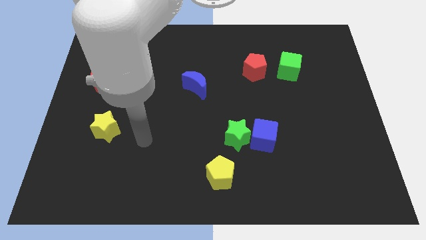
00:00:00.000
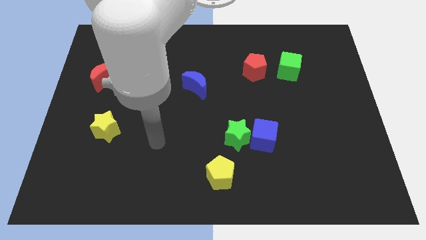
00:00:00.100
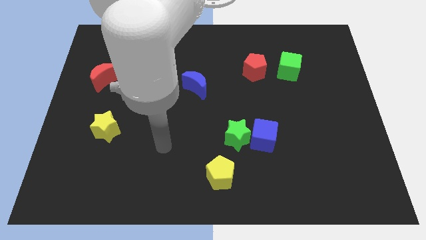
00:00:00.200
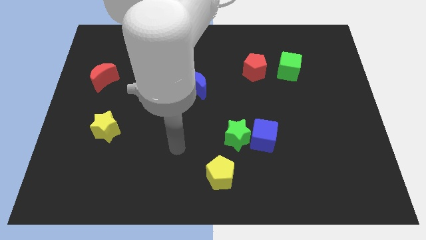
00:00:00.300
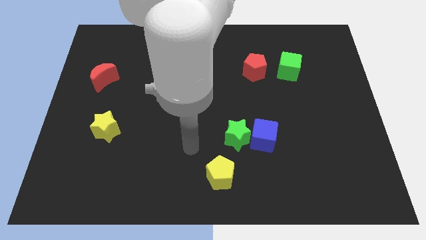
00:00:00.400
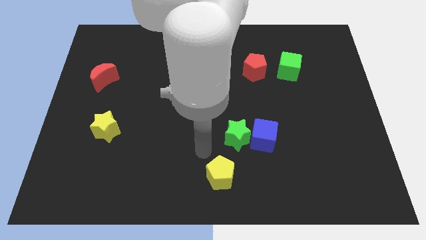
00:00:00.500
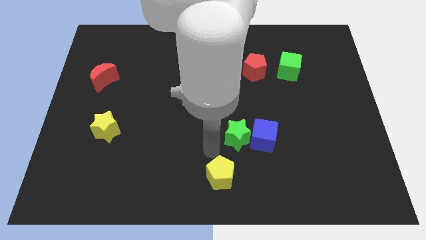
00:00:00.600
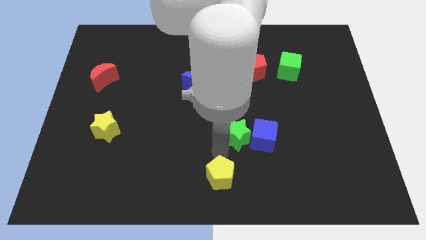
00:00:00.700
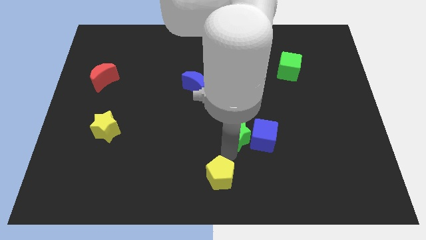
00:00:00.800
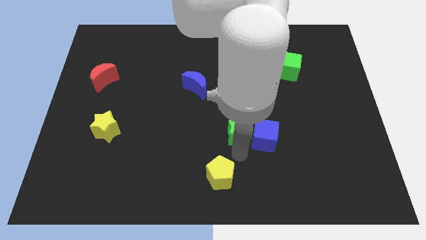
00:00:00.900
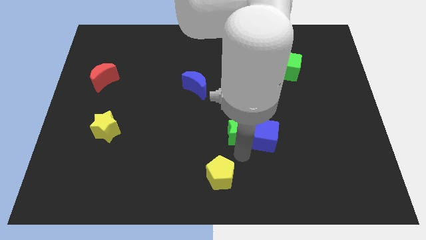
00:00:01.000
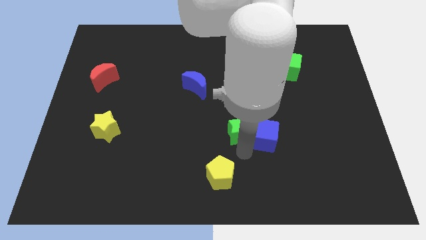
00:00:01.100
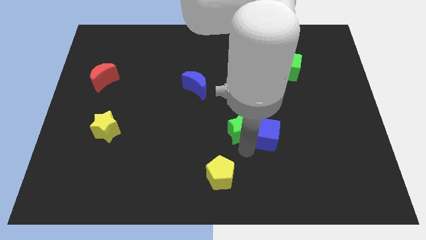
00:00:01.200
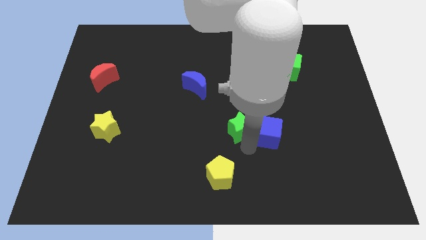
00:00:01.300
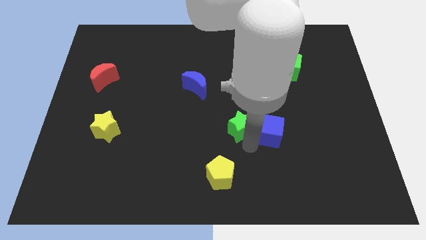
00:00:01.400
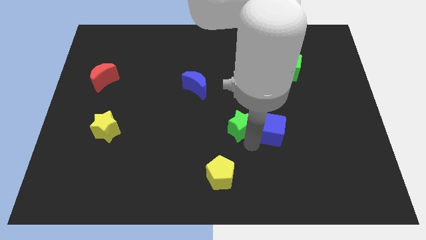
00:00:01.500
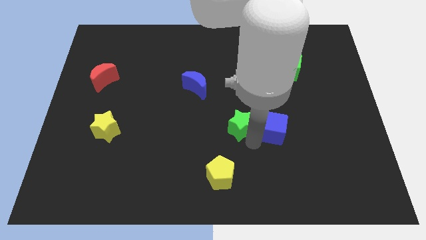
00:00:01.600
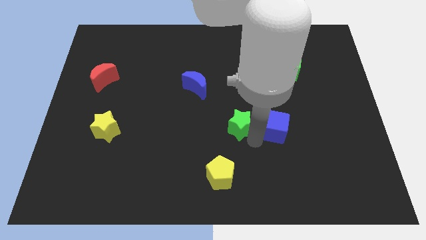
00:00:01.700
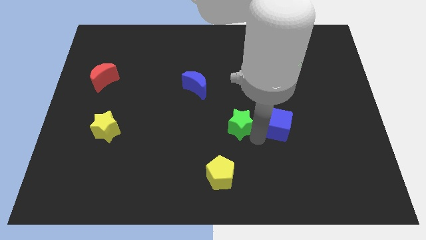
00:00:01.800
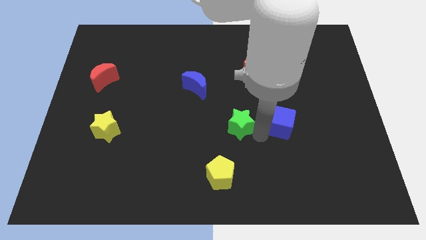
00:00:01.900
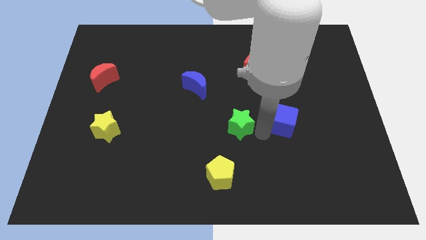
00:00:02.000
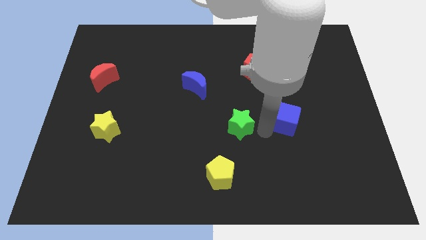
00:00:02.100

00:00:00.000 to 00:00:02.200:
slightly move the blue cube upwards and right diagonally

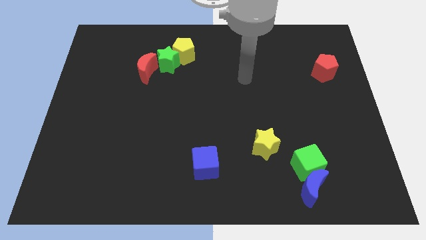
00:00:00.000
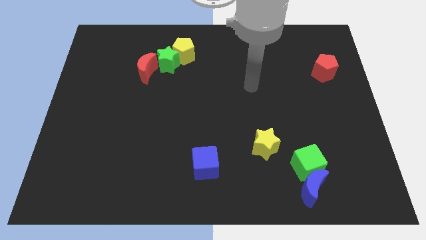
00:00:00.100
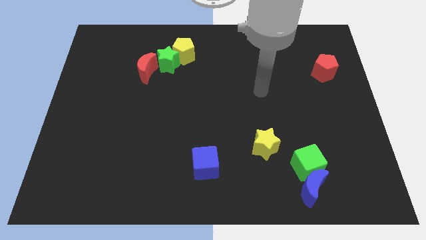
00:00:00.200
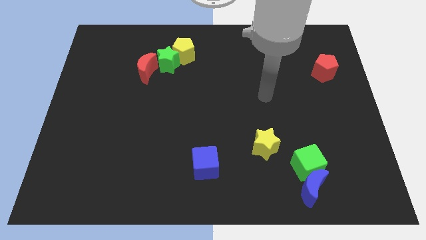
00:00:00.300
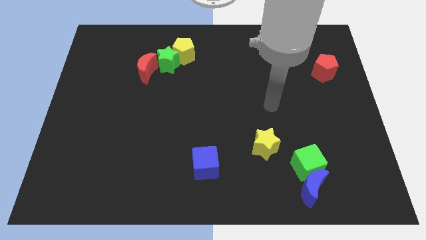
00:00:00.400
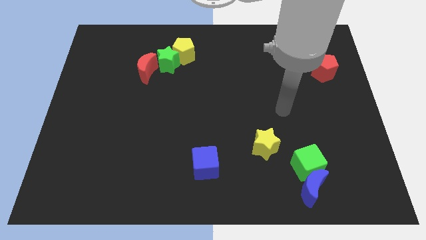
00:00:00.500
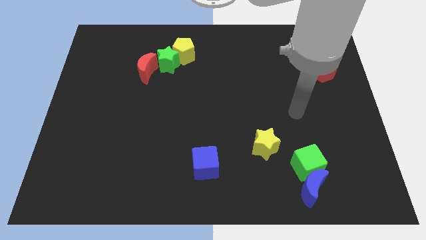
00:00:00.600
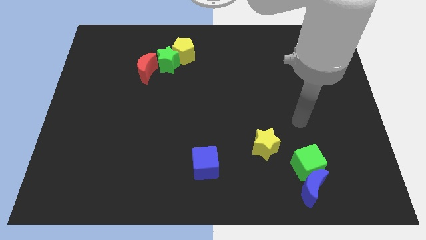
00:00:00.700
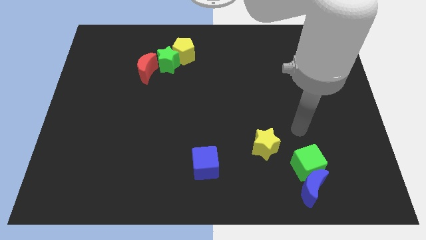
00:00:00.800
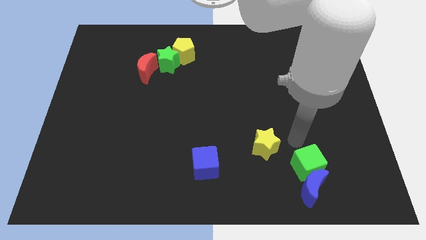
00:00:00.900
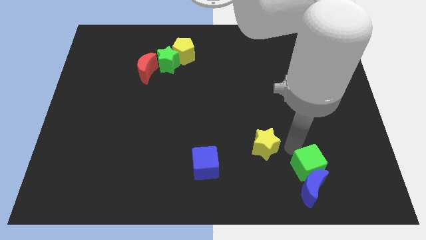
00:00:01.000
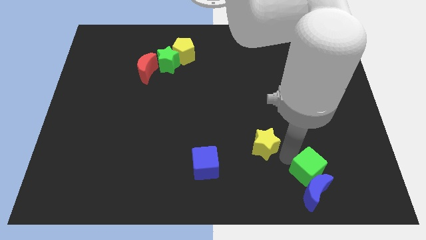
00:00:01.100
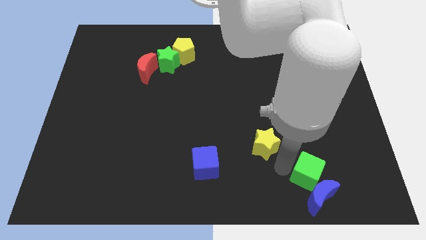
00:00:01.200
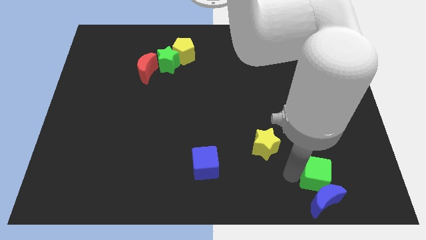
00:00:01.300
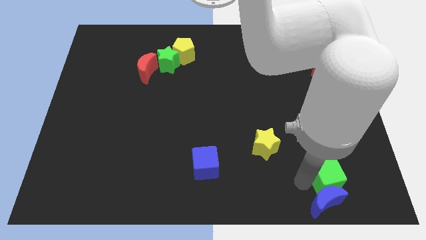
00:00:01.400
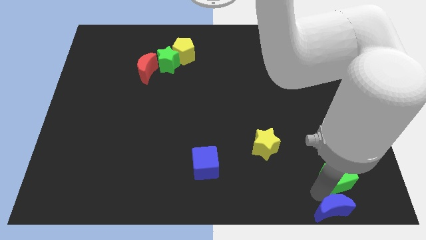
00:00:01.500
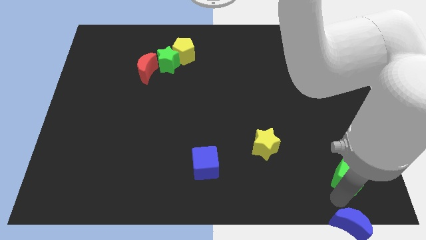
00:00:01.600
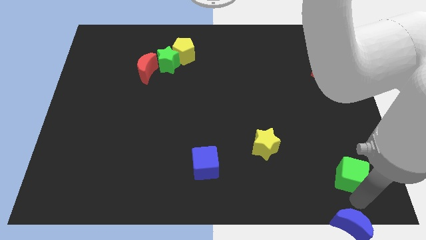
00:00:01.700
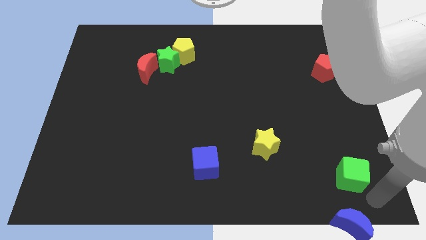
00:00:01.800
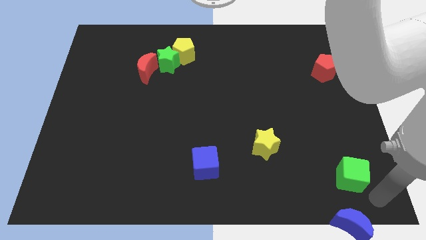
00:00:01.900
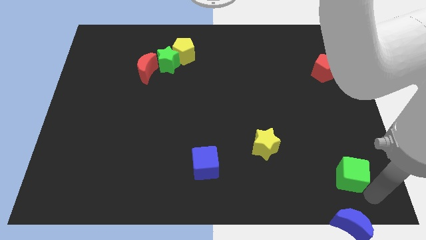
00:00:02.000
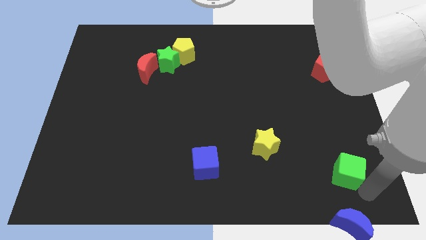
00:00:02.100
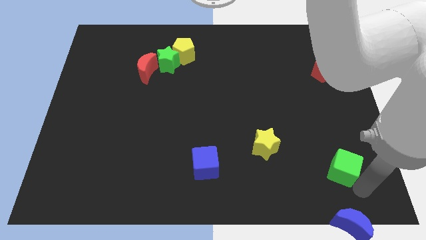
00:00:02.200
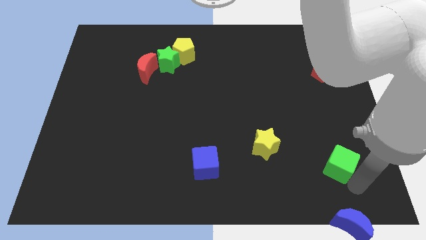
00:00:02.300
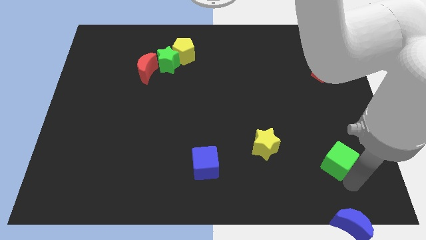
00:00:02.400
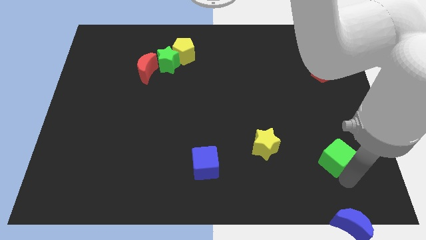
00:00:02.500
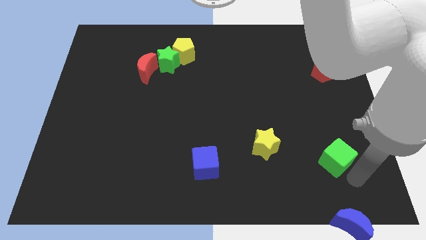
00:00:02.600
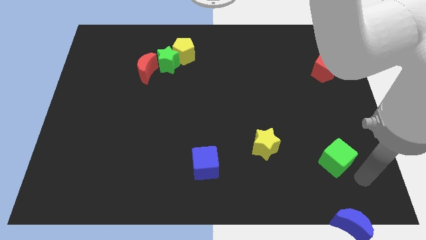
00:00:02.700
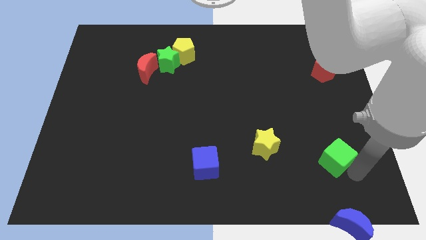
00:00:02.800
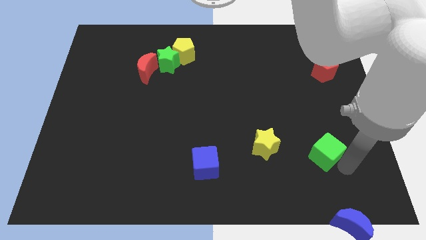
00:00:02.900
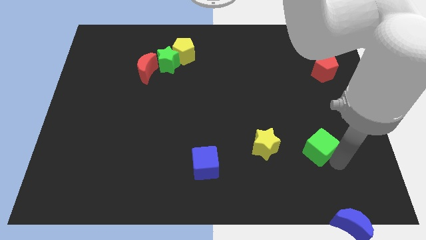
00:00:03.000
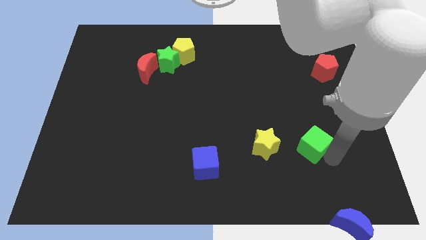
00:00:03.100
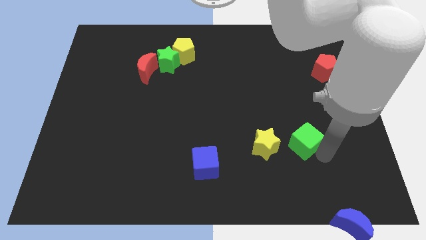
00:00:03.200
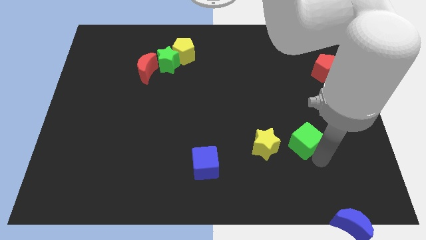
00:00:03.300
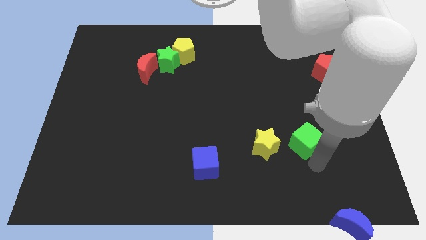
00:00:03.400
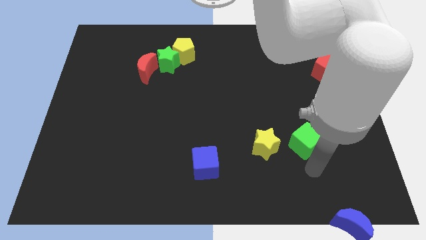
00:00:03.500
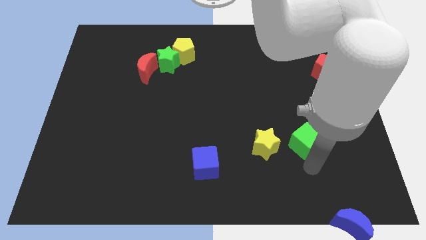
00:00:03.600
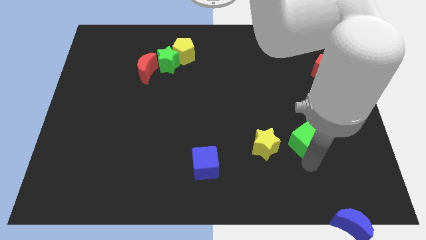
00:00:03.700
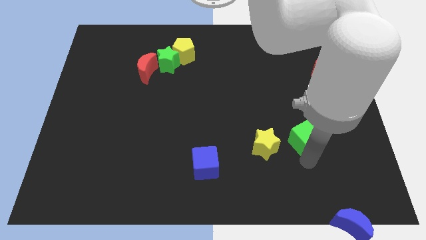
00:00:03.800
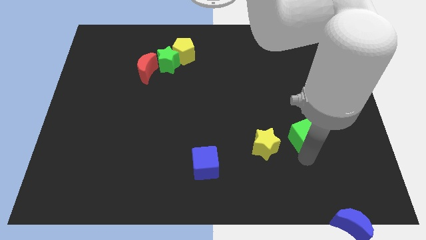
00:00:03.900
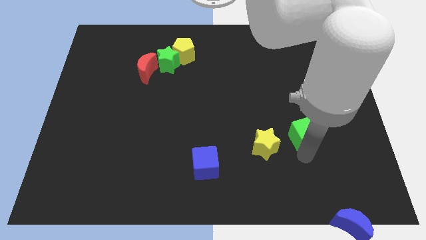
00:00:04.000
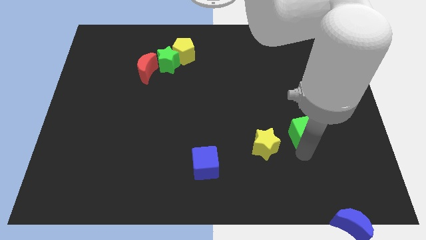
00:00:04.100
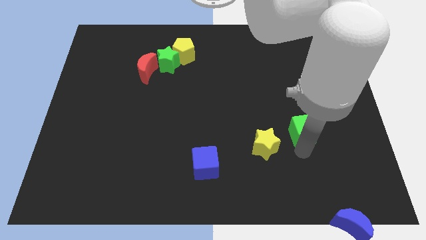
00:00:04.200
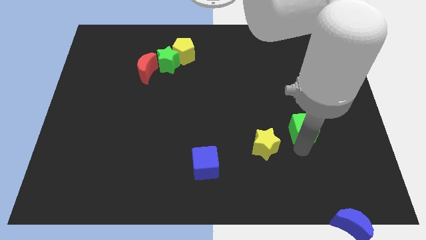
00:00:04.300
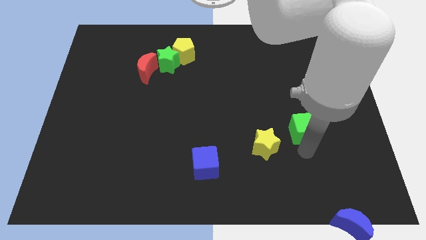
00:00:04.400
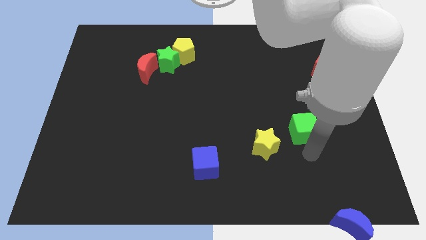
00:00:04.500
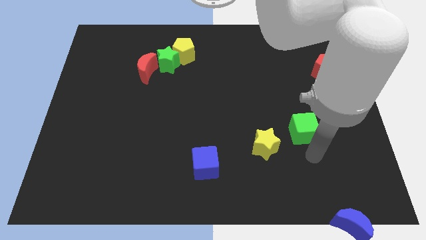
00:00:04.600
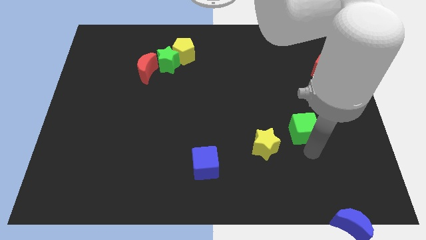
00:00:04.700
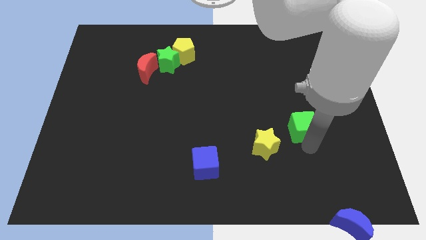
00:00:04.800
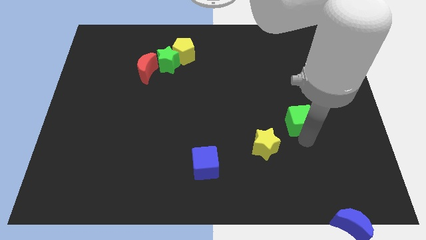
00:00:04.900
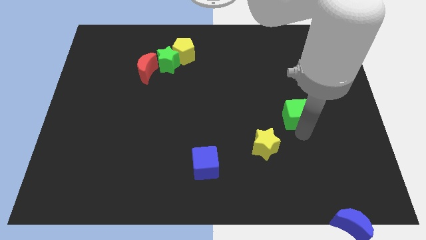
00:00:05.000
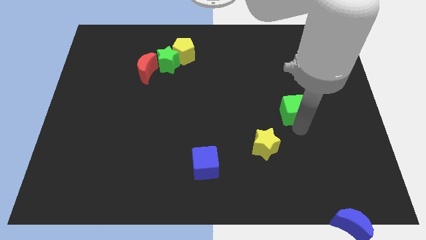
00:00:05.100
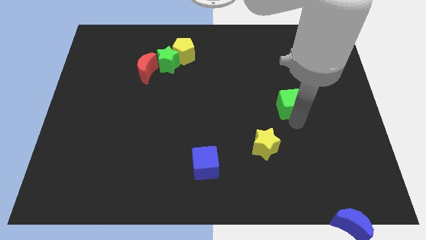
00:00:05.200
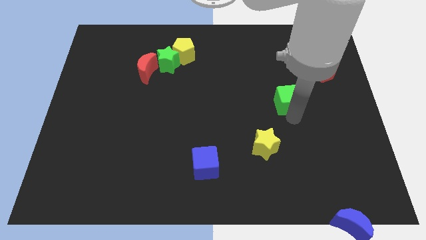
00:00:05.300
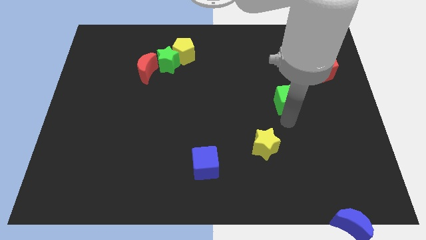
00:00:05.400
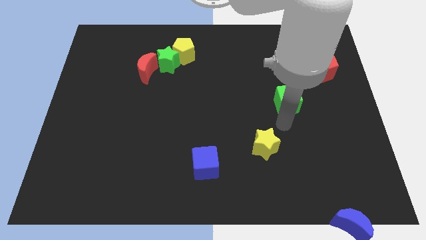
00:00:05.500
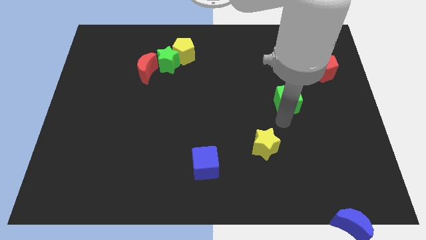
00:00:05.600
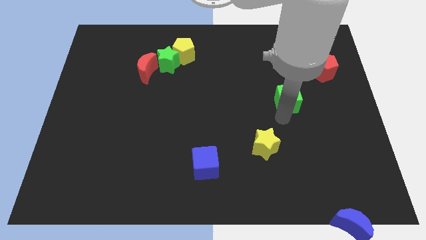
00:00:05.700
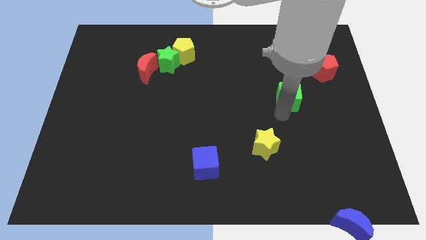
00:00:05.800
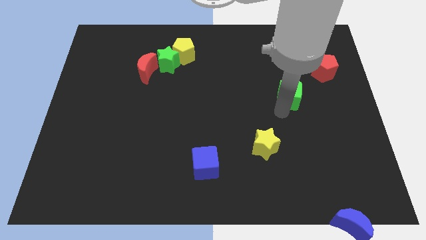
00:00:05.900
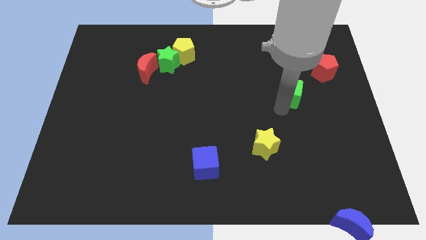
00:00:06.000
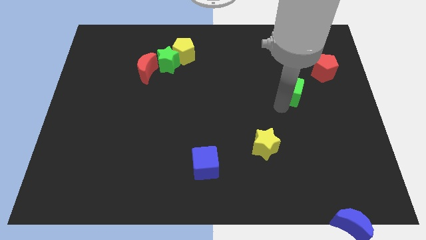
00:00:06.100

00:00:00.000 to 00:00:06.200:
push the green cube up
